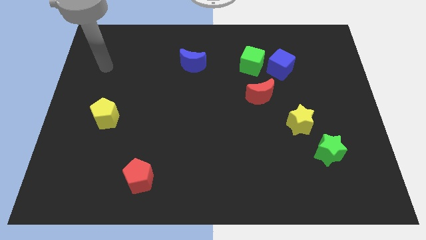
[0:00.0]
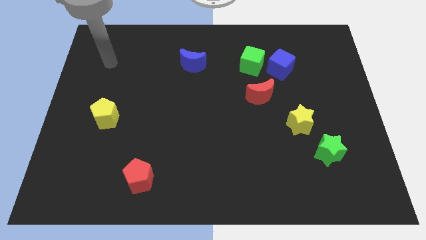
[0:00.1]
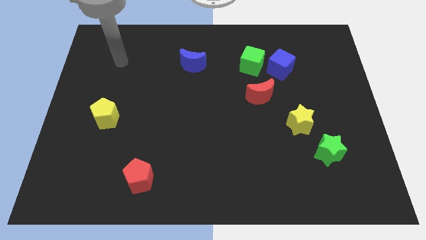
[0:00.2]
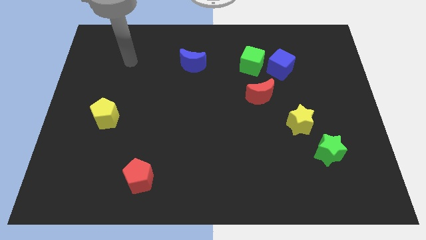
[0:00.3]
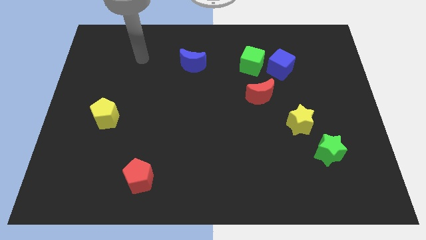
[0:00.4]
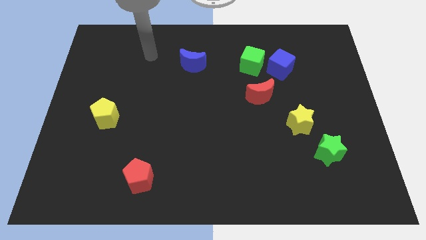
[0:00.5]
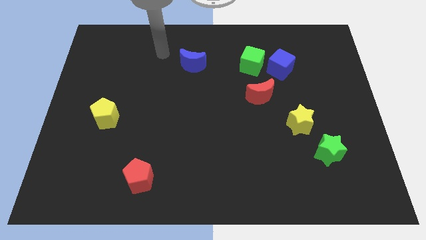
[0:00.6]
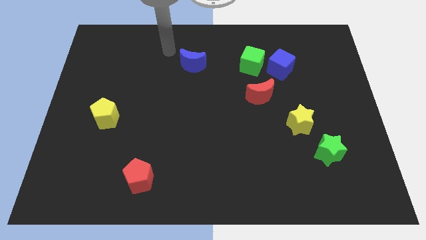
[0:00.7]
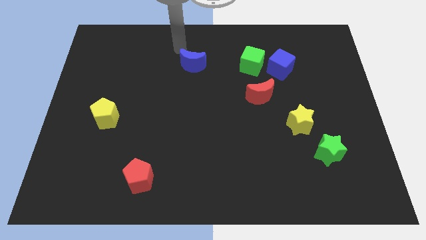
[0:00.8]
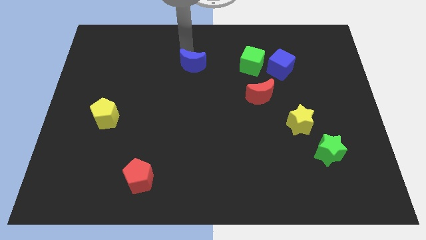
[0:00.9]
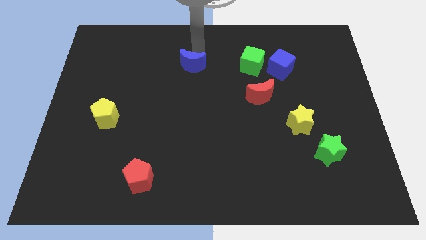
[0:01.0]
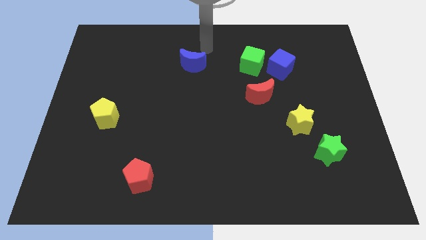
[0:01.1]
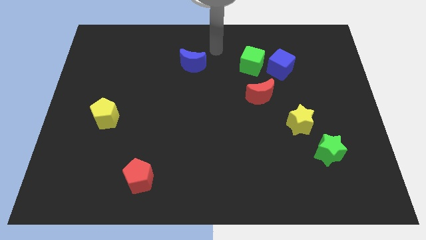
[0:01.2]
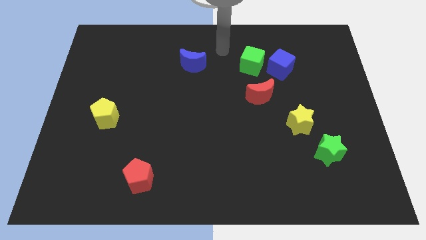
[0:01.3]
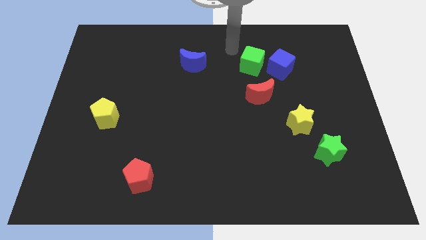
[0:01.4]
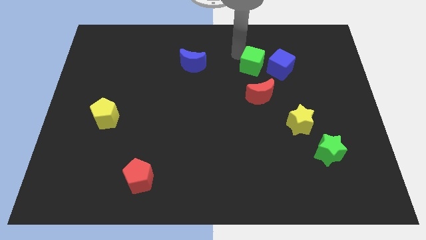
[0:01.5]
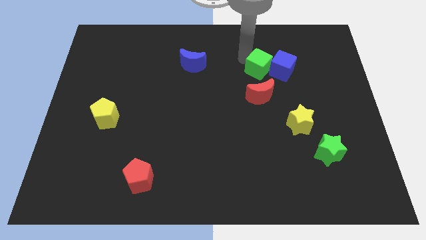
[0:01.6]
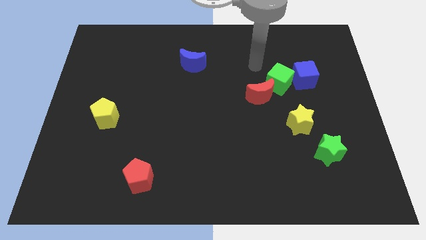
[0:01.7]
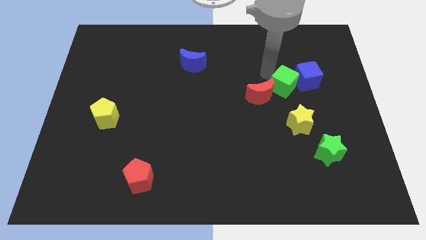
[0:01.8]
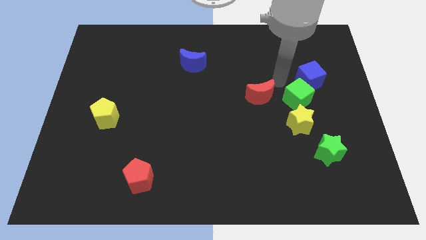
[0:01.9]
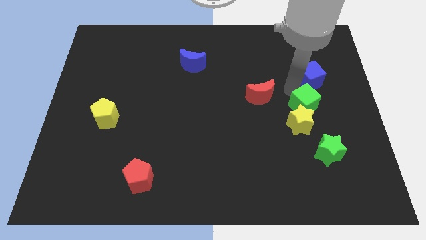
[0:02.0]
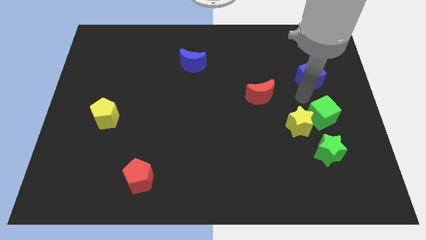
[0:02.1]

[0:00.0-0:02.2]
pull the blue cube apart from the green cube

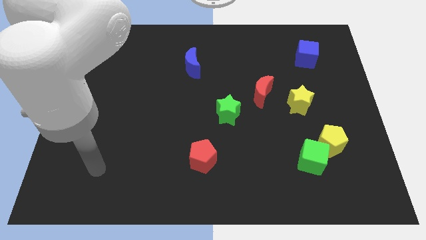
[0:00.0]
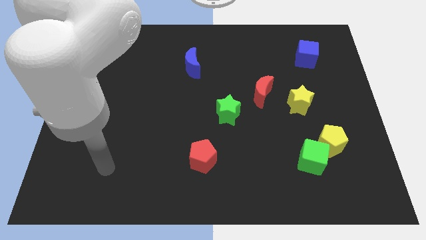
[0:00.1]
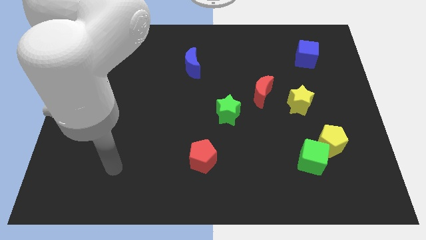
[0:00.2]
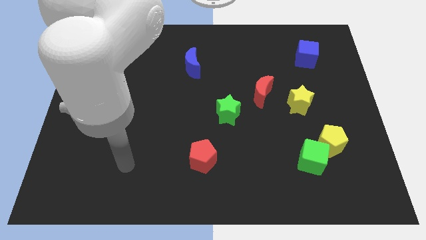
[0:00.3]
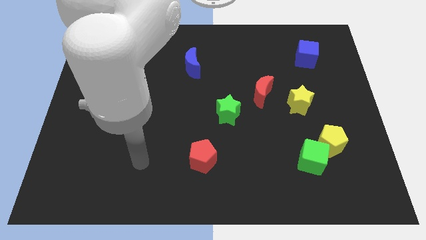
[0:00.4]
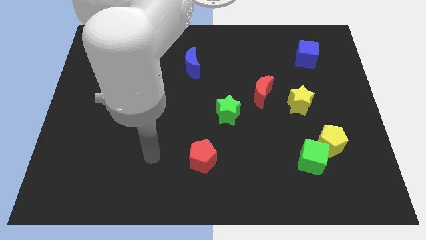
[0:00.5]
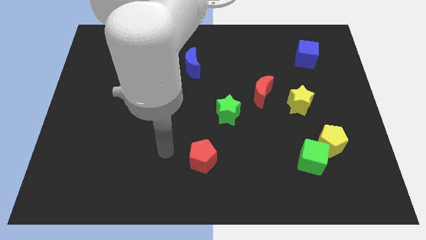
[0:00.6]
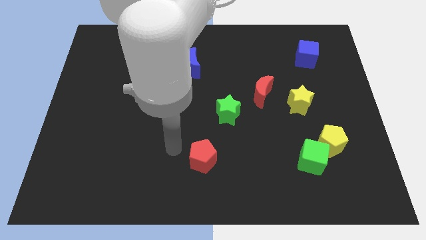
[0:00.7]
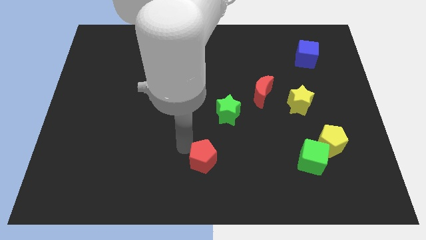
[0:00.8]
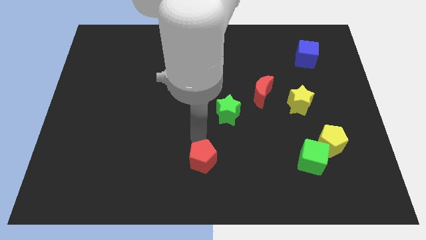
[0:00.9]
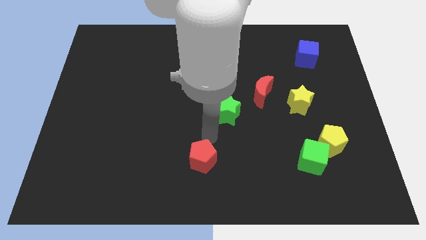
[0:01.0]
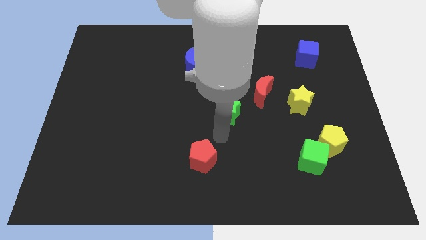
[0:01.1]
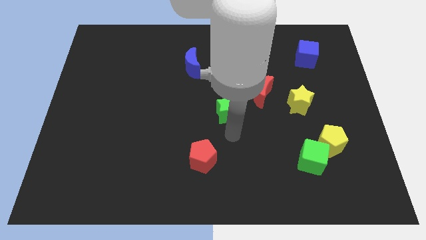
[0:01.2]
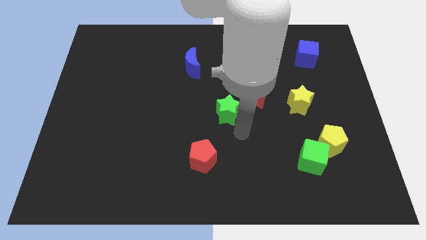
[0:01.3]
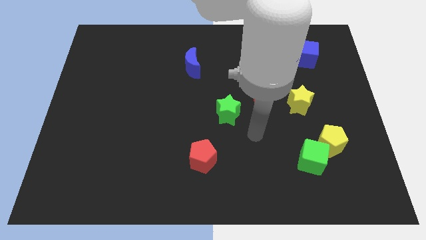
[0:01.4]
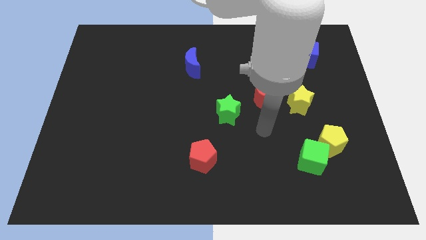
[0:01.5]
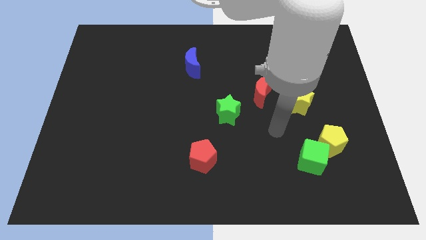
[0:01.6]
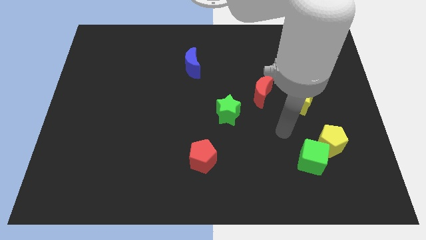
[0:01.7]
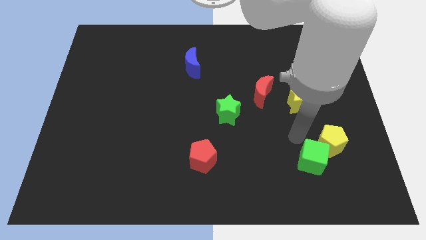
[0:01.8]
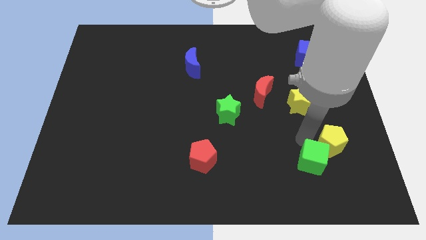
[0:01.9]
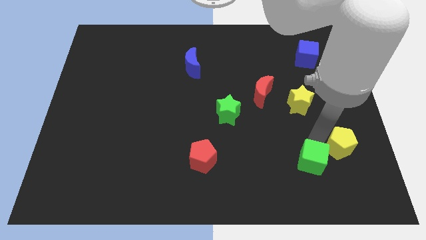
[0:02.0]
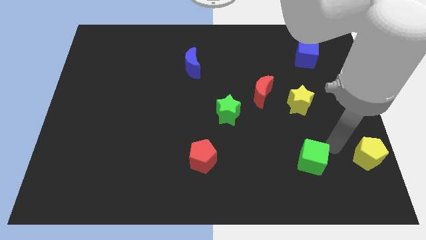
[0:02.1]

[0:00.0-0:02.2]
separate the green cube from the yellow pentagon

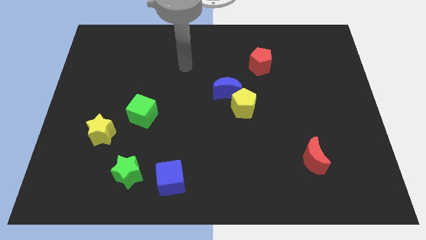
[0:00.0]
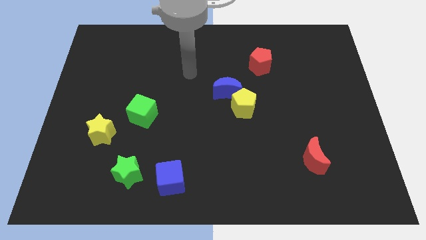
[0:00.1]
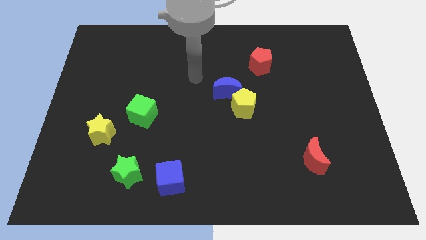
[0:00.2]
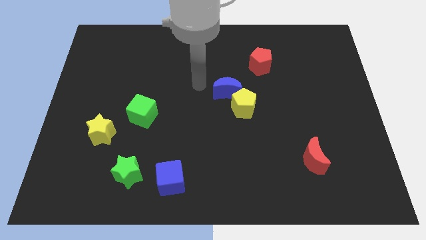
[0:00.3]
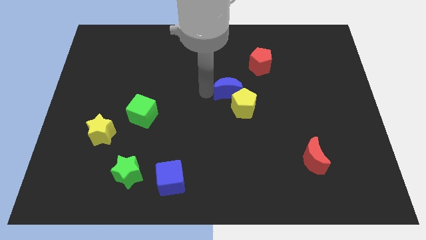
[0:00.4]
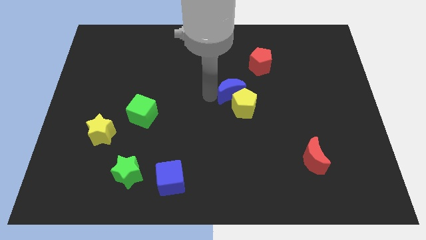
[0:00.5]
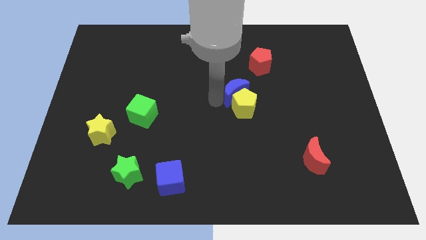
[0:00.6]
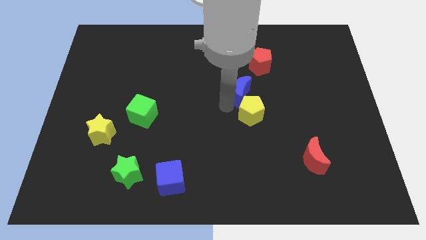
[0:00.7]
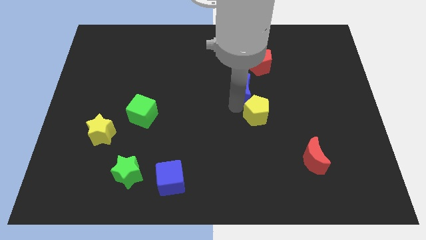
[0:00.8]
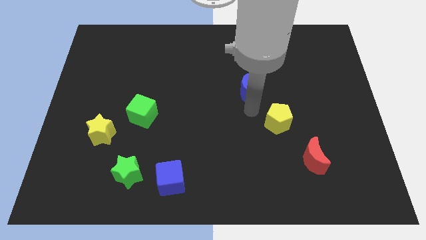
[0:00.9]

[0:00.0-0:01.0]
pull the blue moon apart from the yellow pentagon

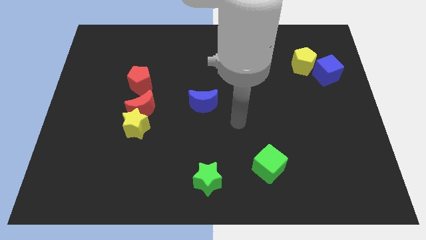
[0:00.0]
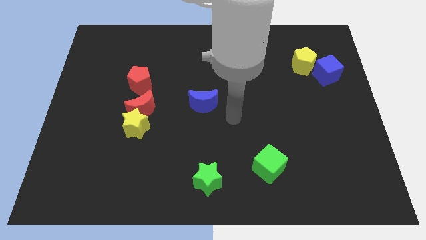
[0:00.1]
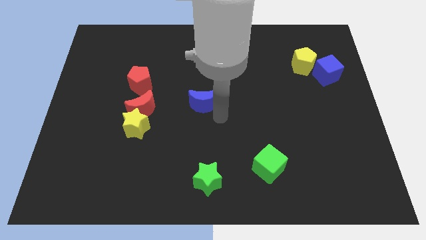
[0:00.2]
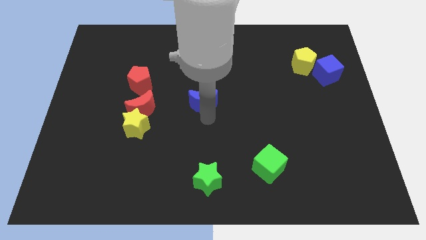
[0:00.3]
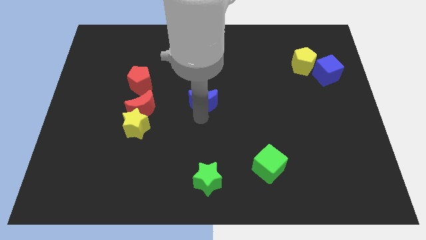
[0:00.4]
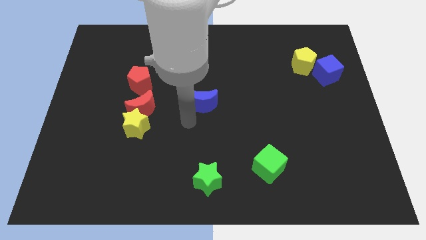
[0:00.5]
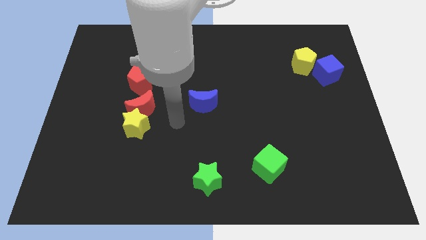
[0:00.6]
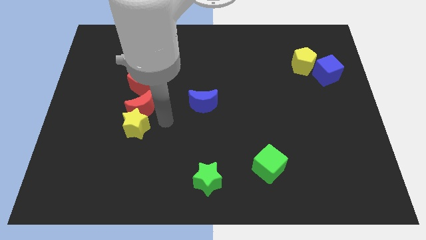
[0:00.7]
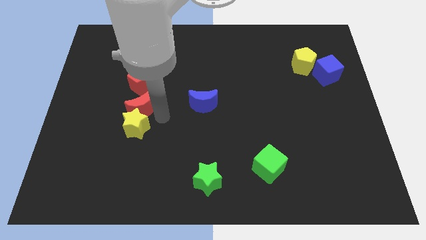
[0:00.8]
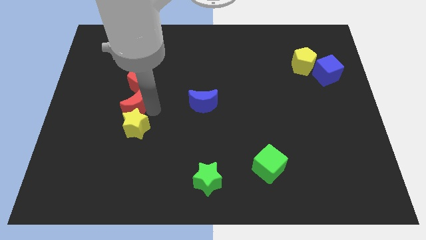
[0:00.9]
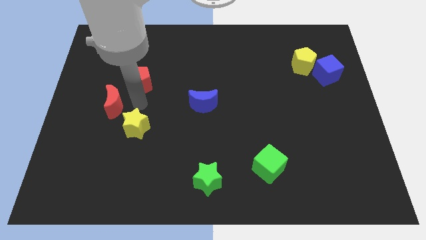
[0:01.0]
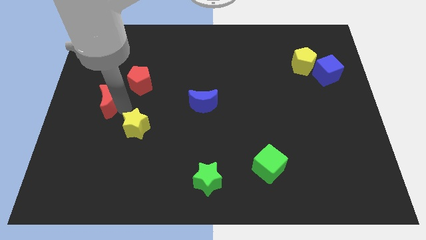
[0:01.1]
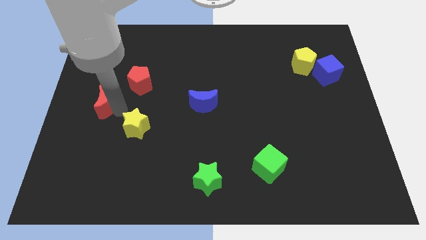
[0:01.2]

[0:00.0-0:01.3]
separate the yellow star from the red moon

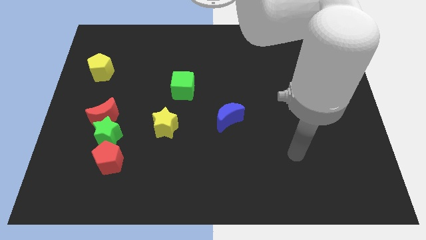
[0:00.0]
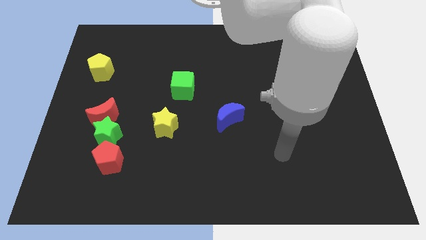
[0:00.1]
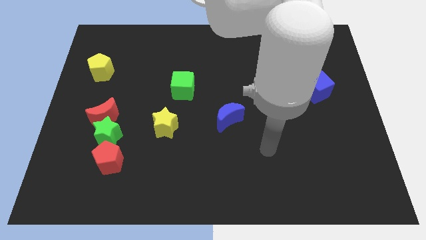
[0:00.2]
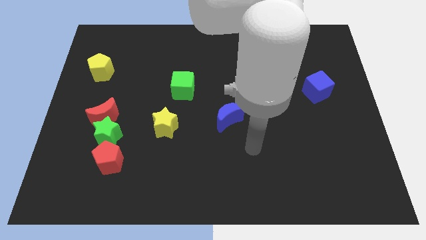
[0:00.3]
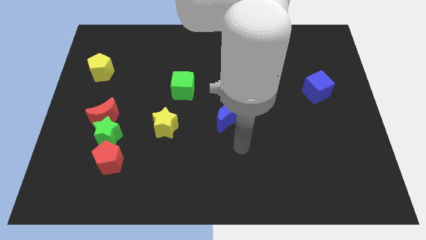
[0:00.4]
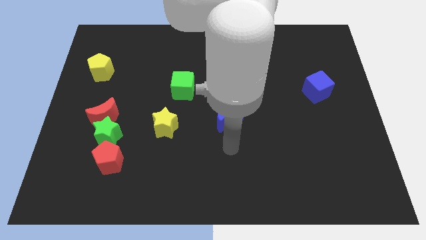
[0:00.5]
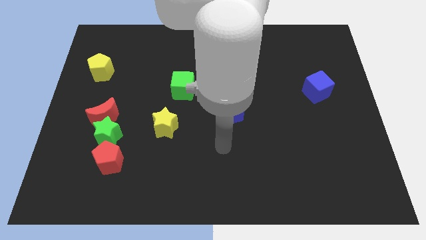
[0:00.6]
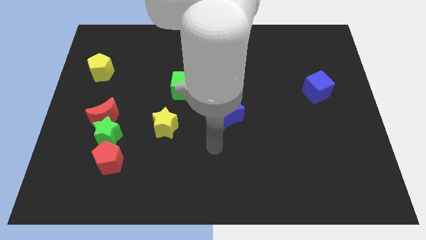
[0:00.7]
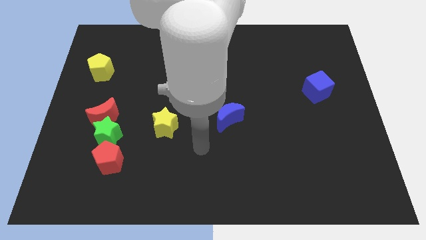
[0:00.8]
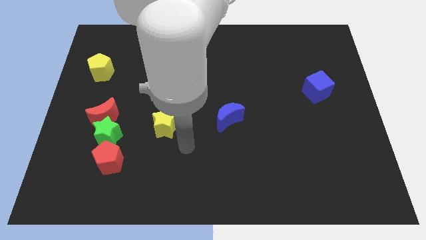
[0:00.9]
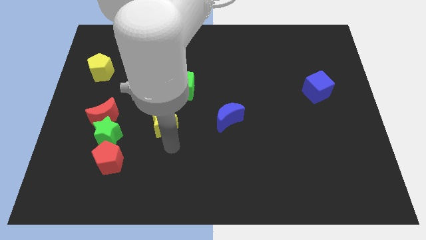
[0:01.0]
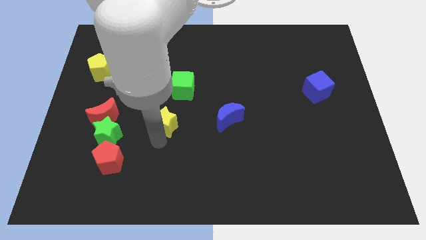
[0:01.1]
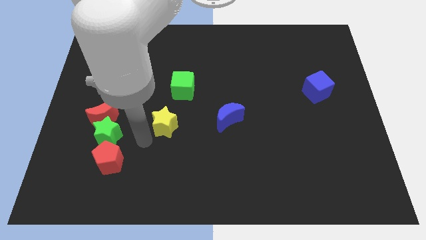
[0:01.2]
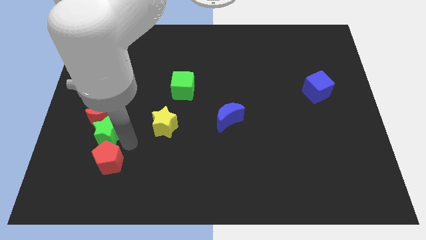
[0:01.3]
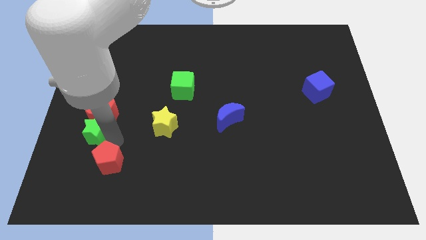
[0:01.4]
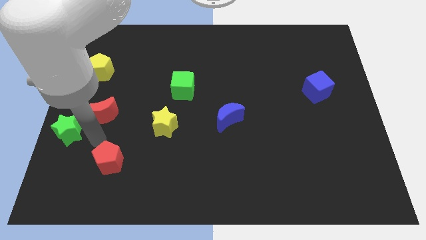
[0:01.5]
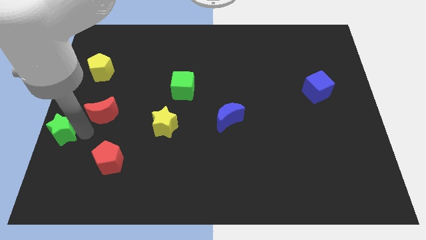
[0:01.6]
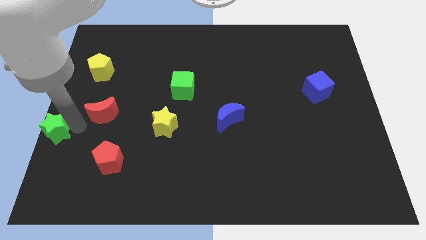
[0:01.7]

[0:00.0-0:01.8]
move the red moon away from the green star

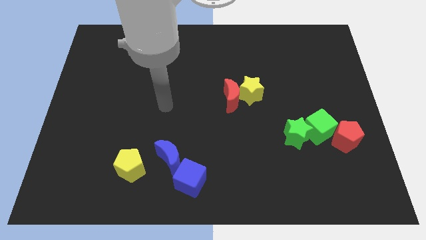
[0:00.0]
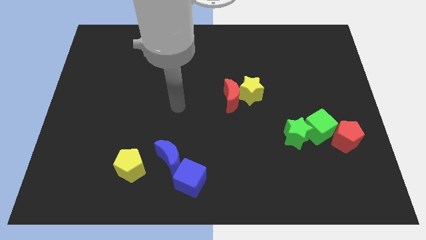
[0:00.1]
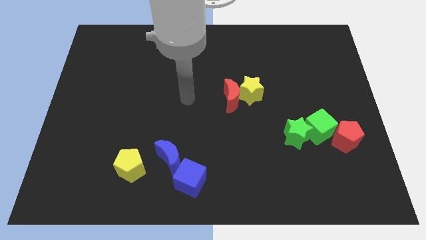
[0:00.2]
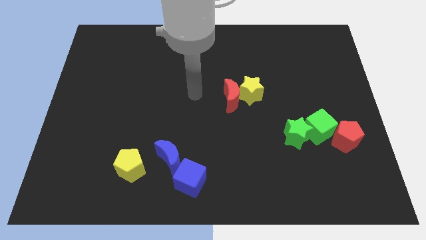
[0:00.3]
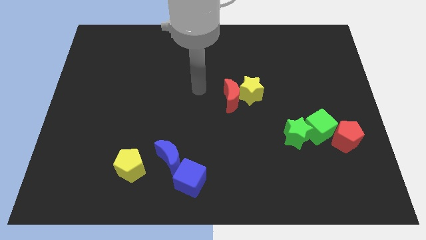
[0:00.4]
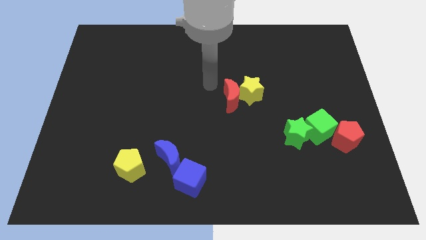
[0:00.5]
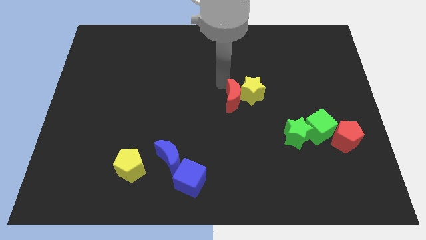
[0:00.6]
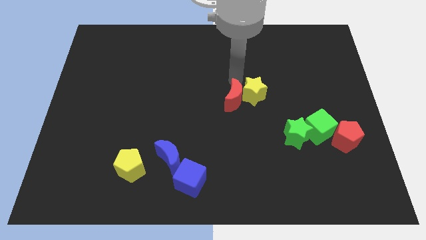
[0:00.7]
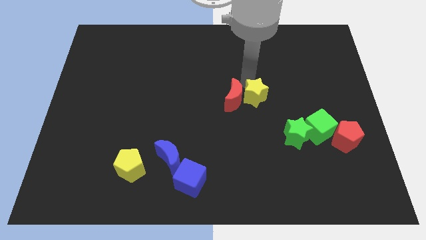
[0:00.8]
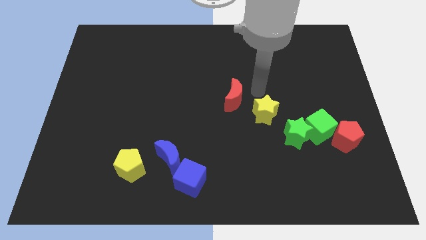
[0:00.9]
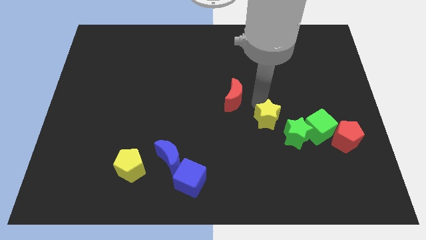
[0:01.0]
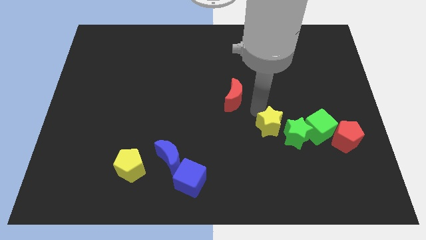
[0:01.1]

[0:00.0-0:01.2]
separate the red moon from the yellow star
